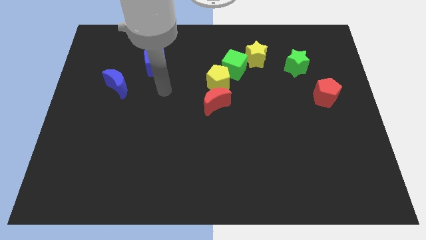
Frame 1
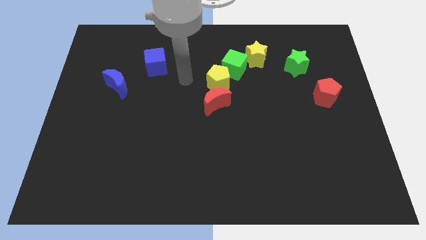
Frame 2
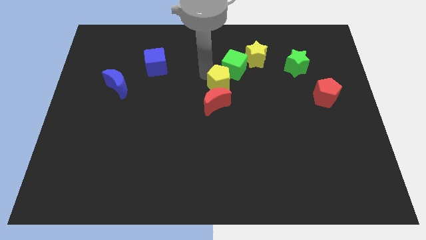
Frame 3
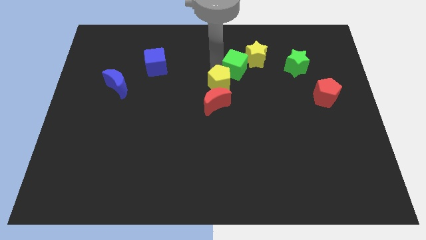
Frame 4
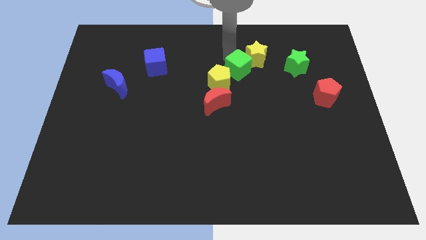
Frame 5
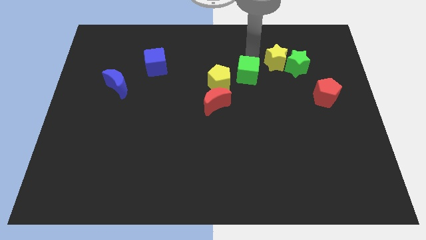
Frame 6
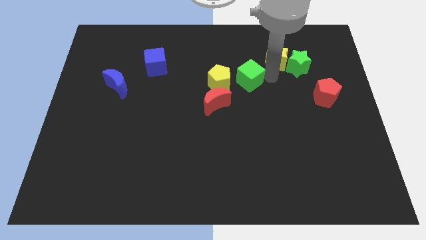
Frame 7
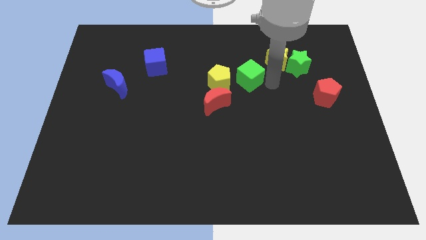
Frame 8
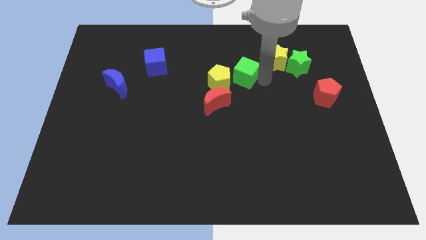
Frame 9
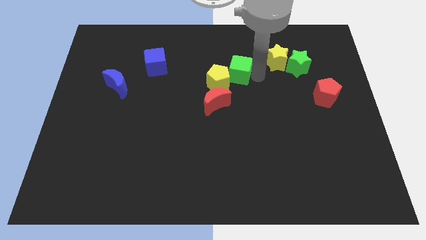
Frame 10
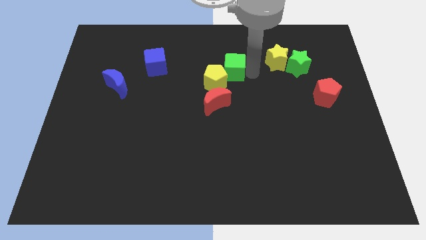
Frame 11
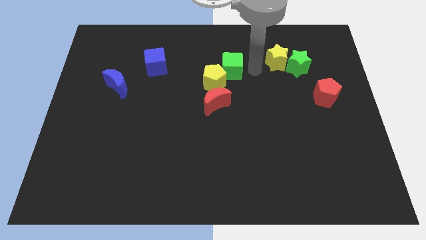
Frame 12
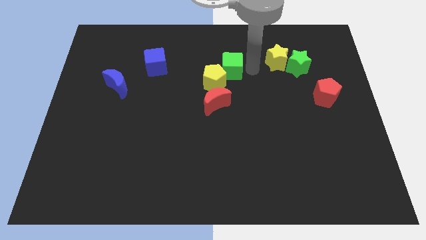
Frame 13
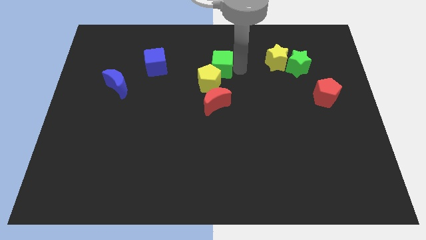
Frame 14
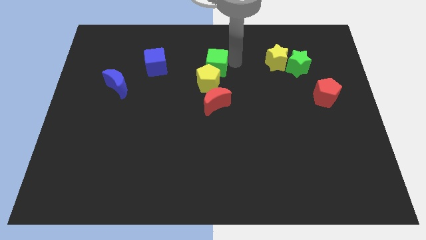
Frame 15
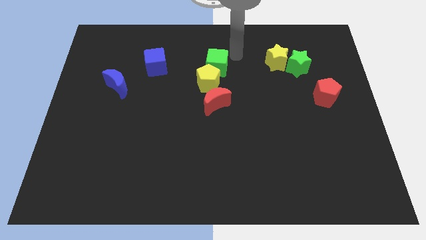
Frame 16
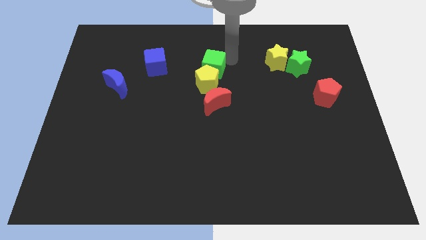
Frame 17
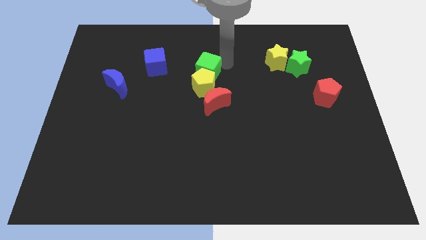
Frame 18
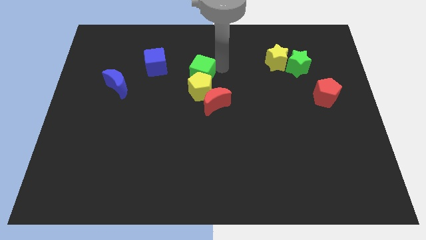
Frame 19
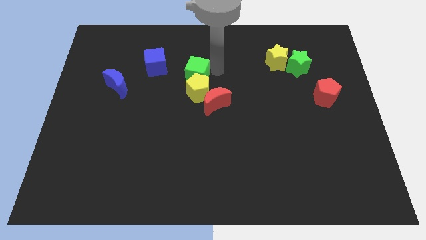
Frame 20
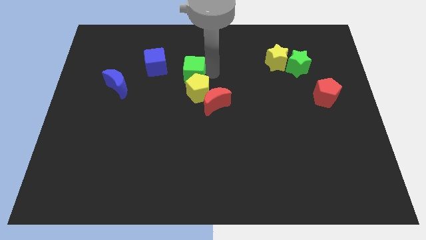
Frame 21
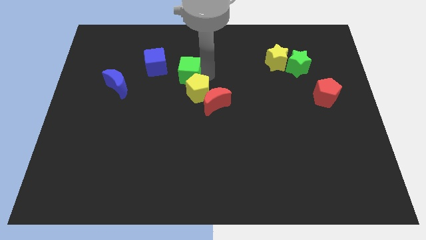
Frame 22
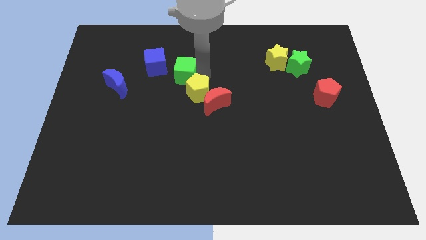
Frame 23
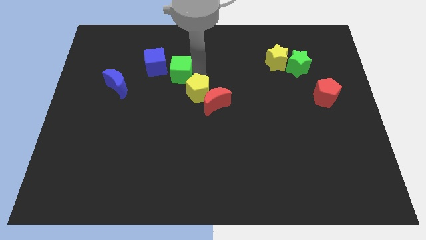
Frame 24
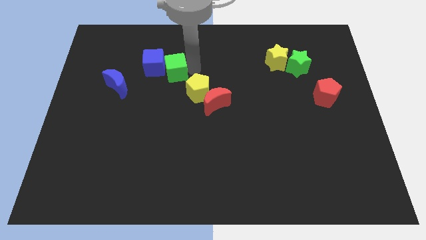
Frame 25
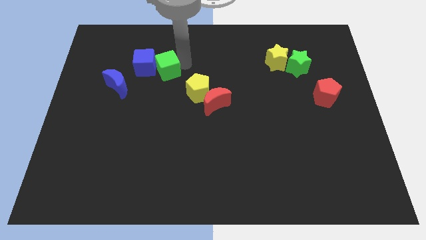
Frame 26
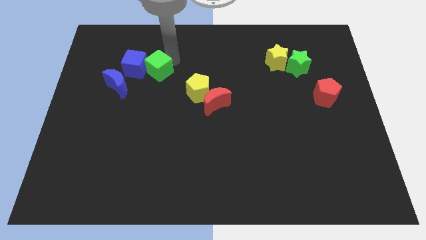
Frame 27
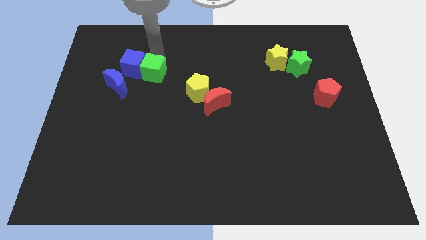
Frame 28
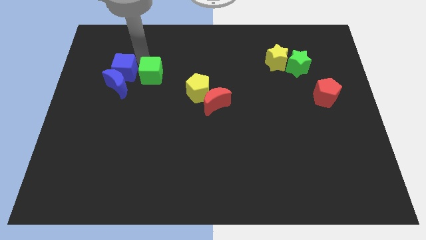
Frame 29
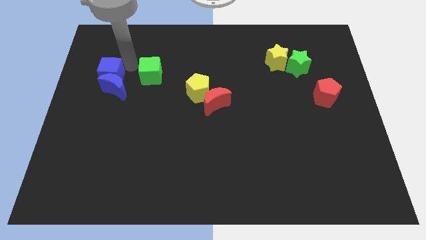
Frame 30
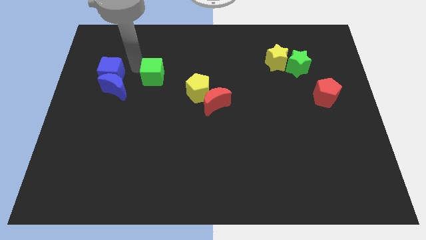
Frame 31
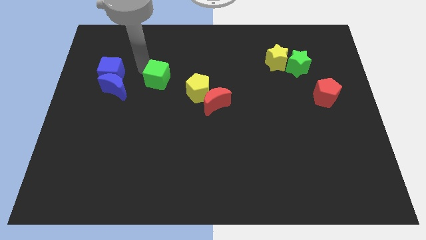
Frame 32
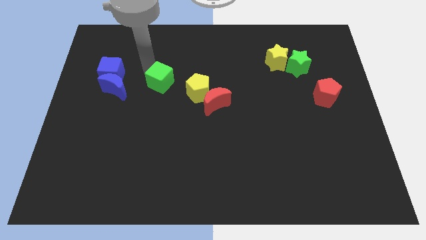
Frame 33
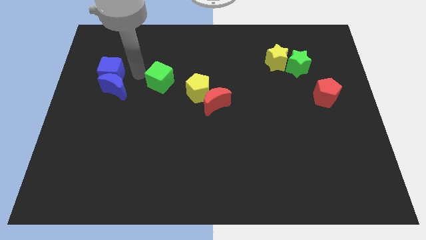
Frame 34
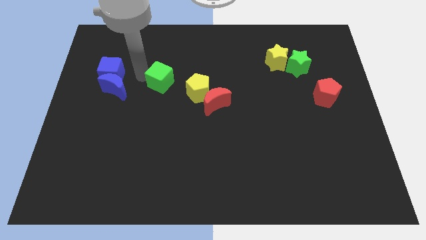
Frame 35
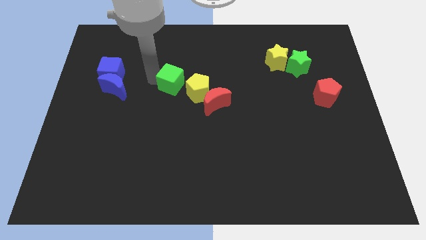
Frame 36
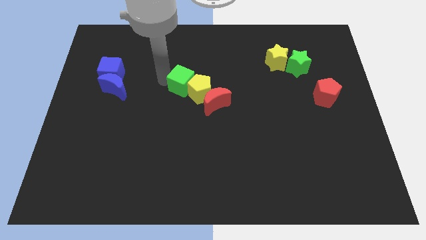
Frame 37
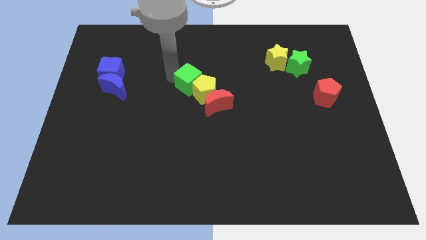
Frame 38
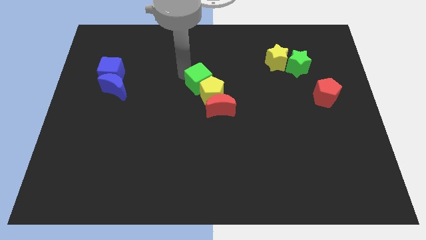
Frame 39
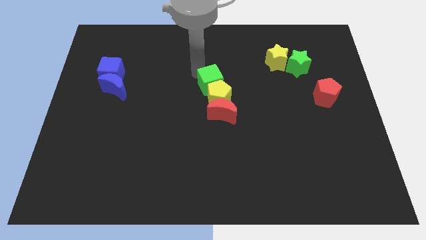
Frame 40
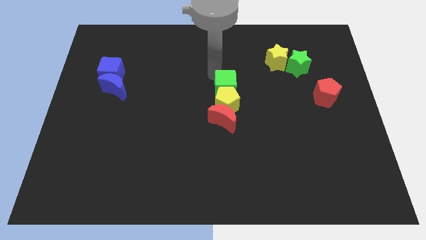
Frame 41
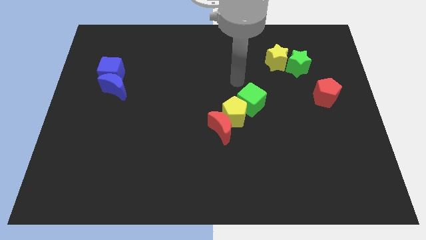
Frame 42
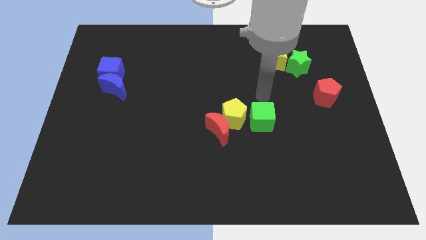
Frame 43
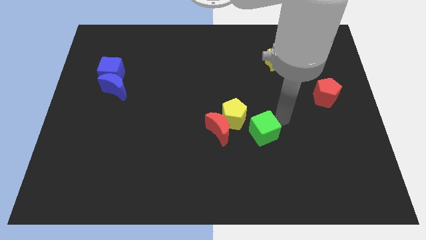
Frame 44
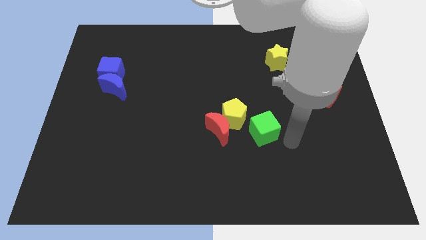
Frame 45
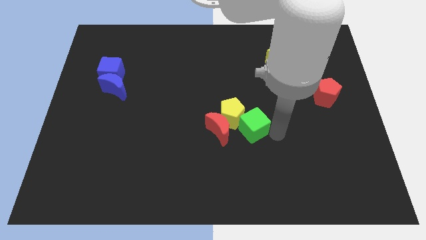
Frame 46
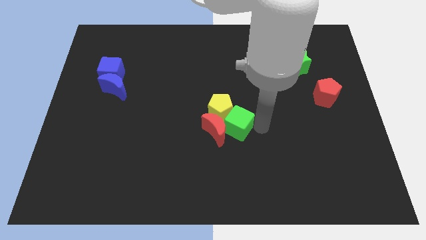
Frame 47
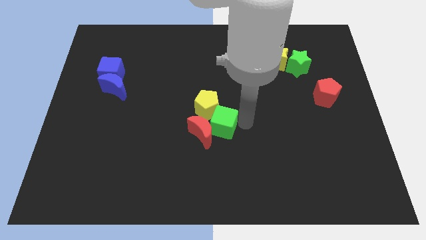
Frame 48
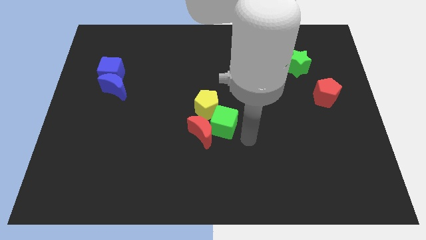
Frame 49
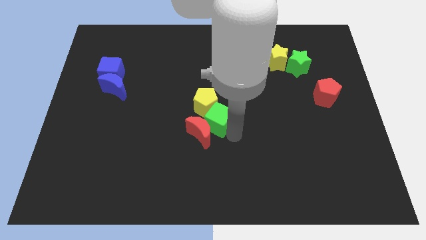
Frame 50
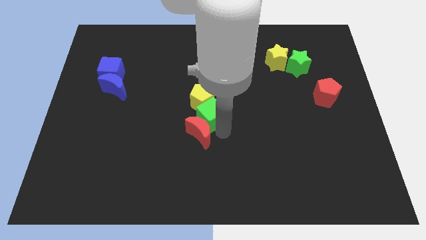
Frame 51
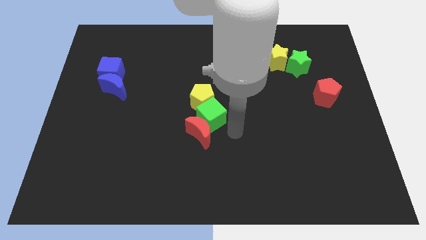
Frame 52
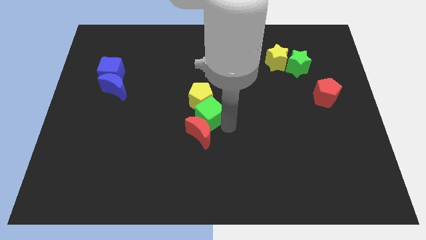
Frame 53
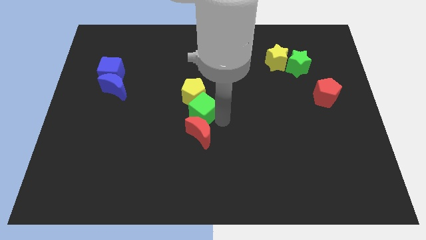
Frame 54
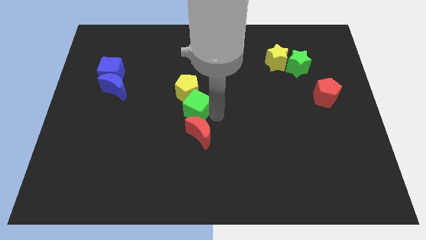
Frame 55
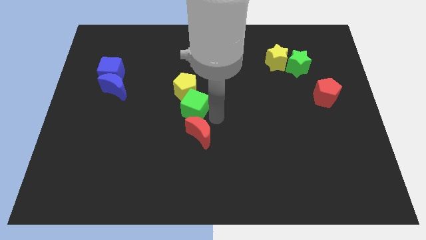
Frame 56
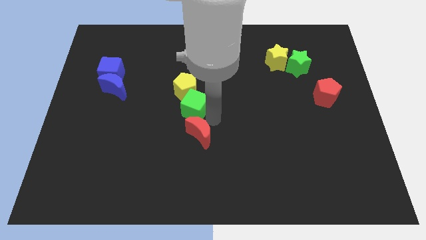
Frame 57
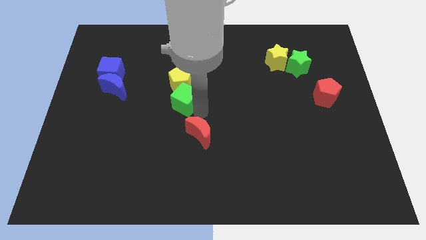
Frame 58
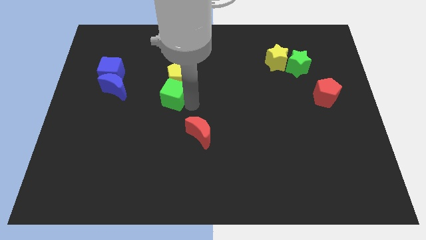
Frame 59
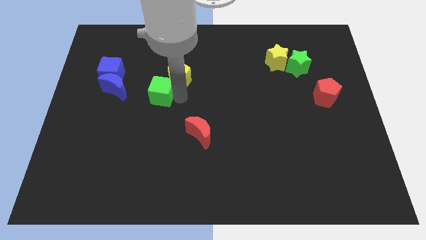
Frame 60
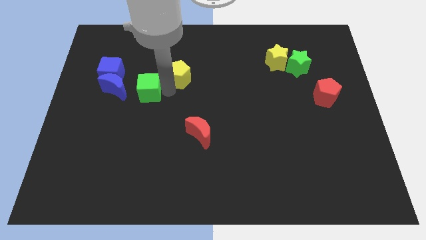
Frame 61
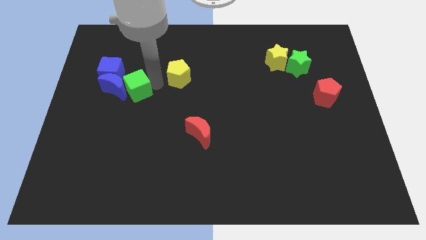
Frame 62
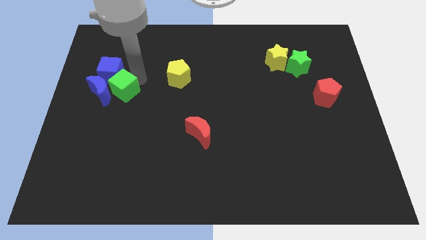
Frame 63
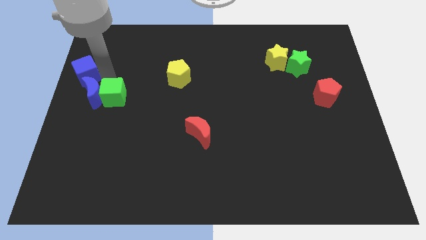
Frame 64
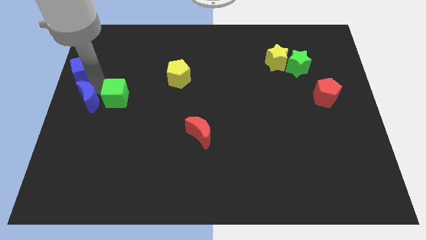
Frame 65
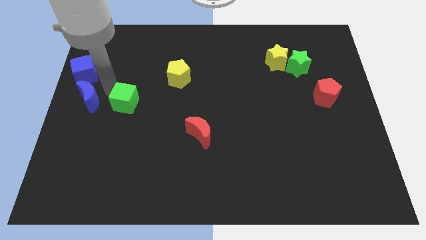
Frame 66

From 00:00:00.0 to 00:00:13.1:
push the green cube down and then left

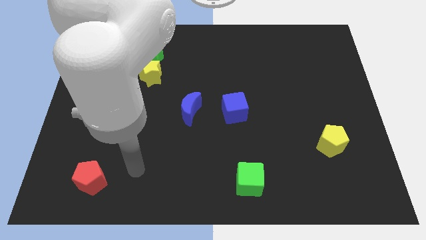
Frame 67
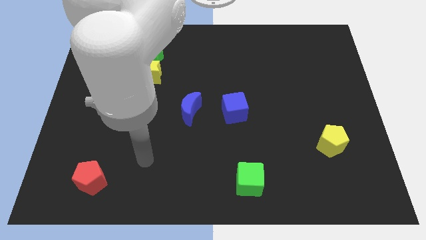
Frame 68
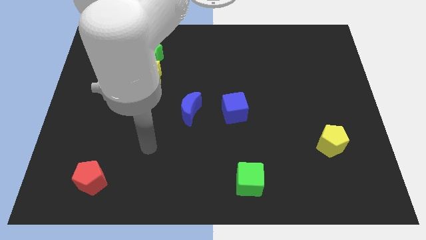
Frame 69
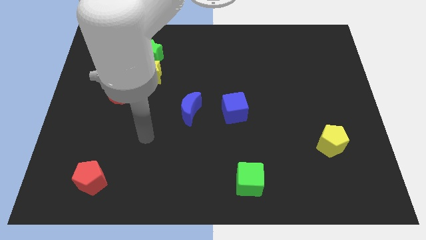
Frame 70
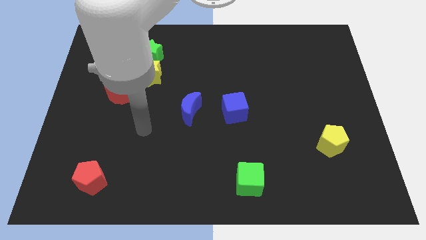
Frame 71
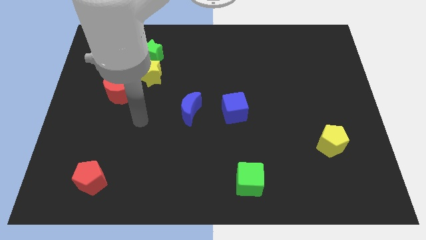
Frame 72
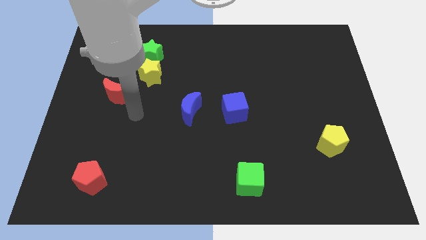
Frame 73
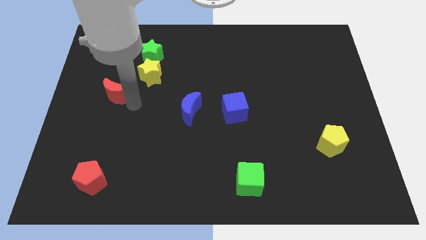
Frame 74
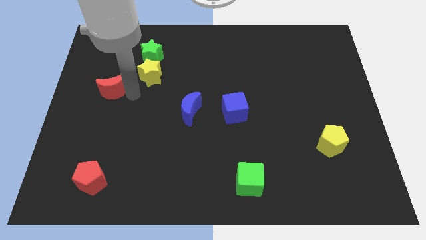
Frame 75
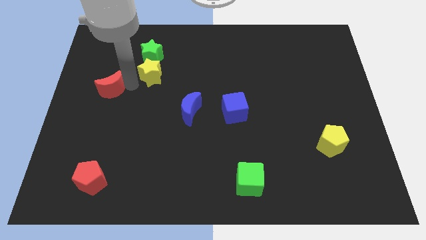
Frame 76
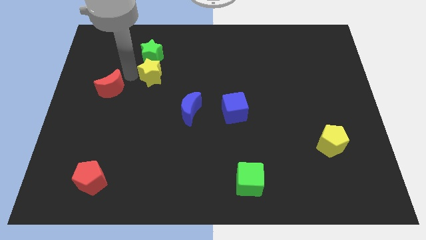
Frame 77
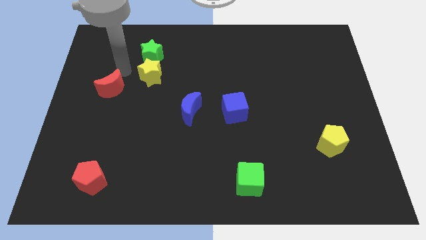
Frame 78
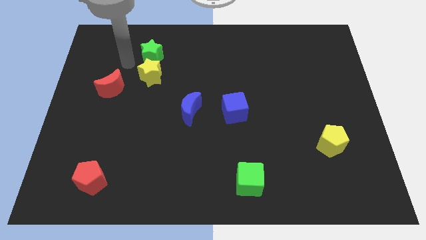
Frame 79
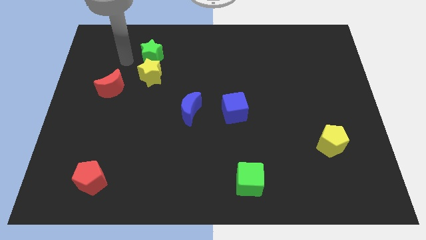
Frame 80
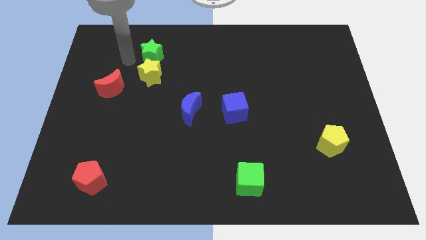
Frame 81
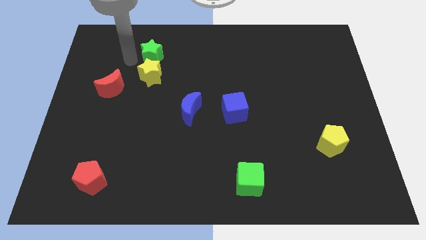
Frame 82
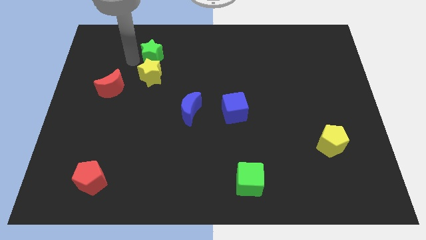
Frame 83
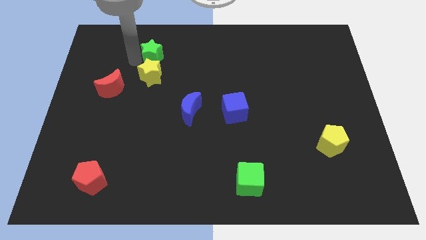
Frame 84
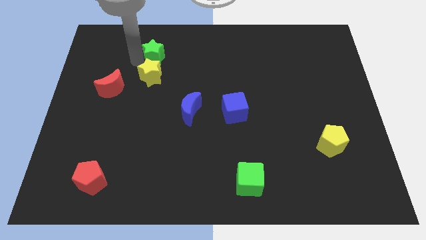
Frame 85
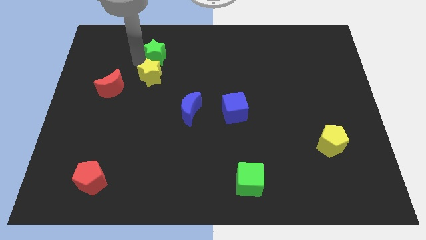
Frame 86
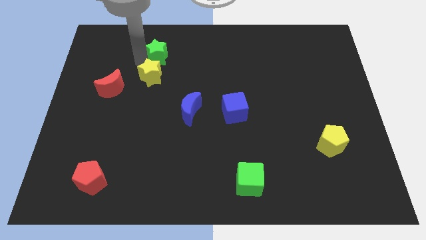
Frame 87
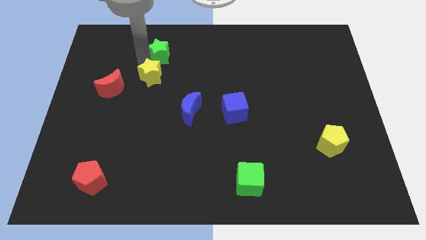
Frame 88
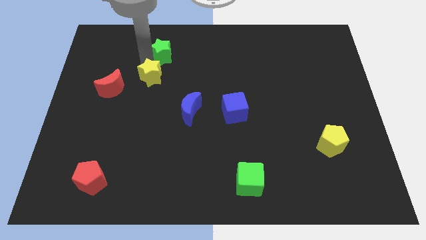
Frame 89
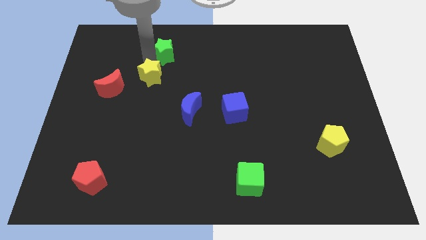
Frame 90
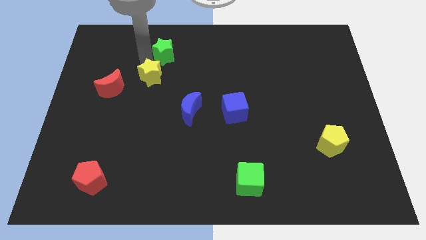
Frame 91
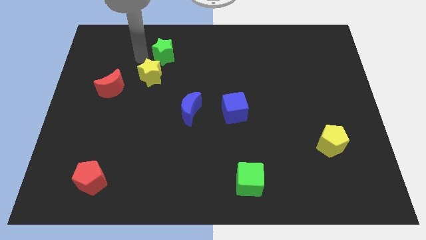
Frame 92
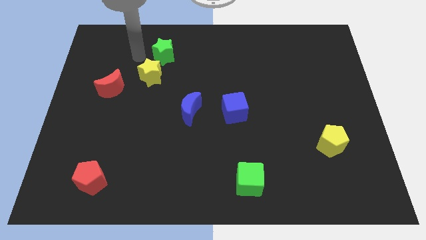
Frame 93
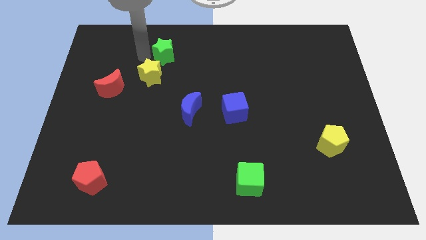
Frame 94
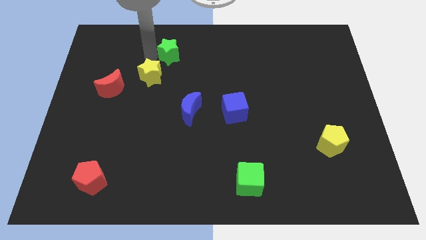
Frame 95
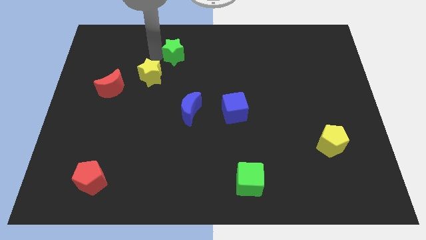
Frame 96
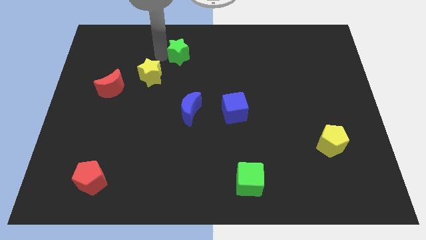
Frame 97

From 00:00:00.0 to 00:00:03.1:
slide the green star a little bit right
